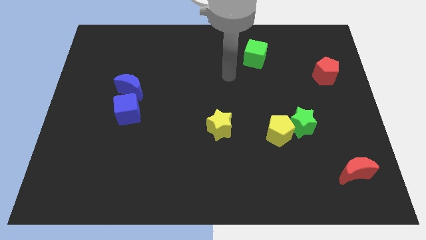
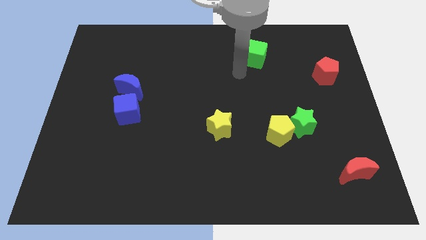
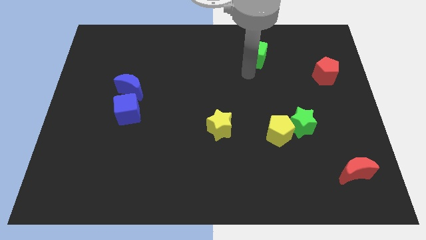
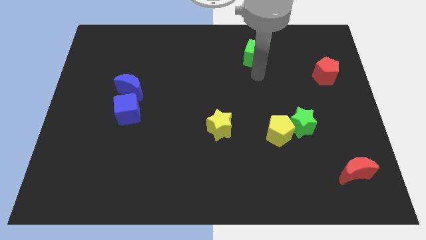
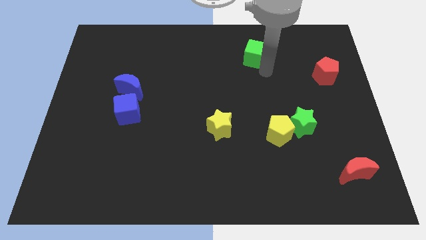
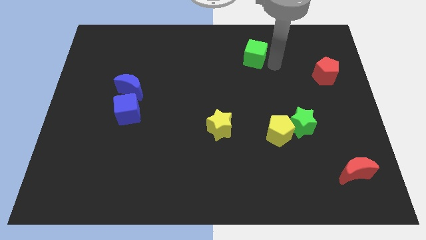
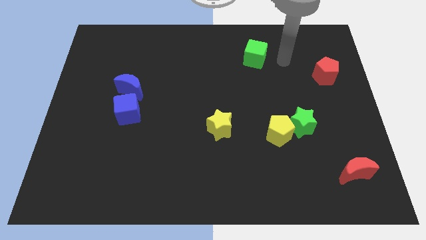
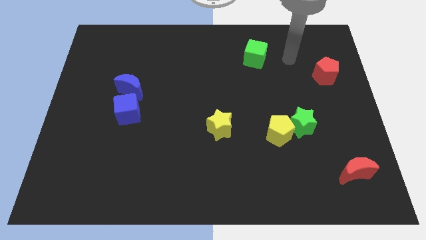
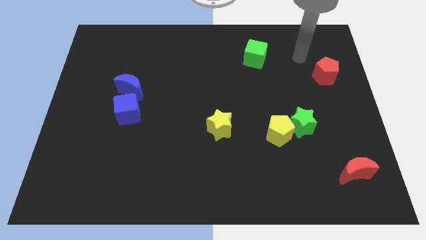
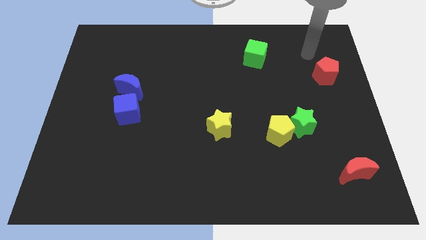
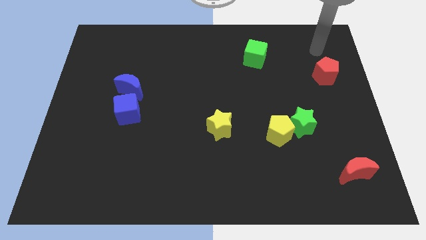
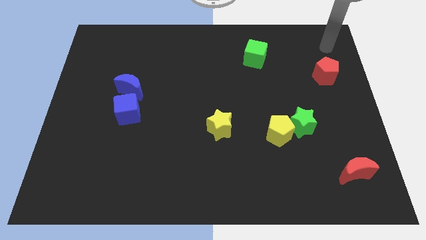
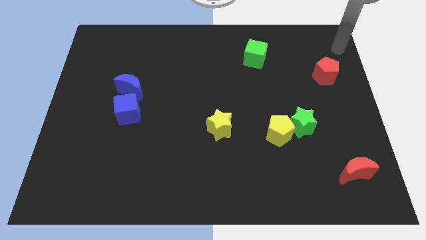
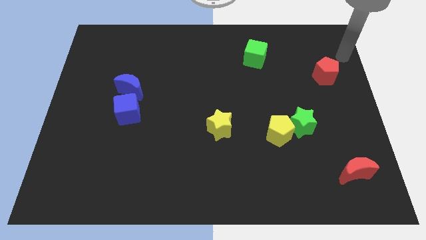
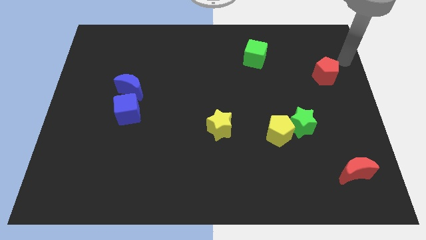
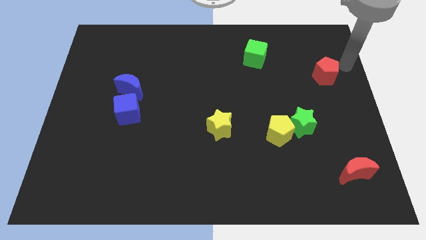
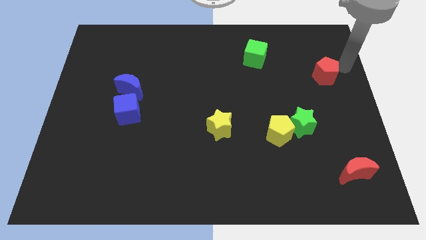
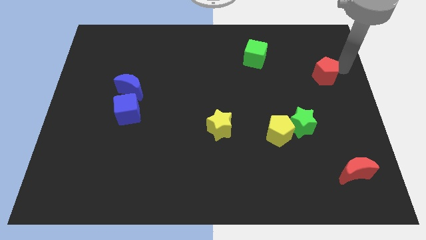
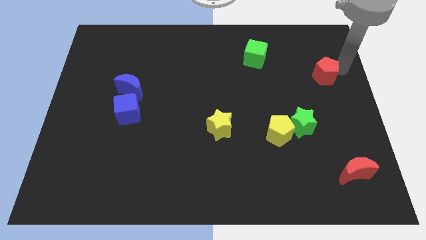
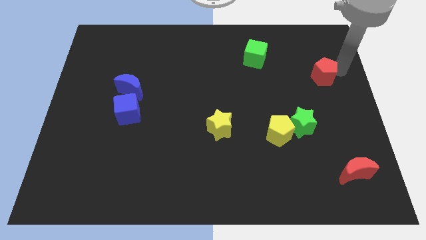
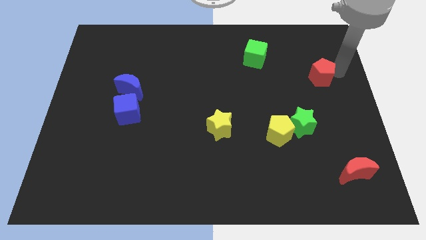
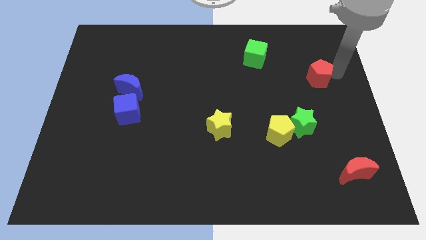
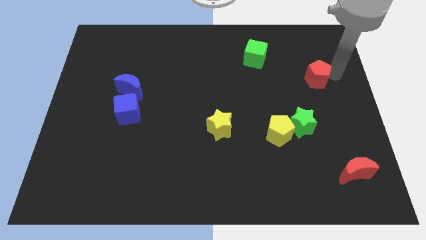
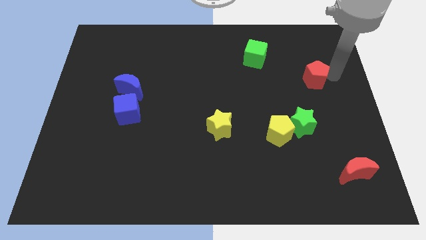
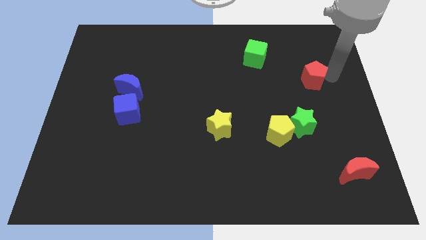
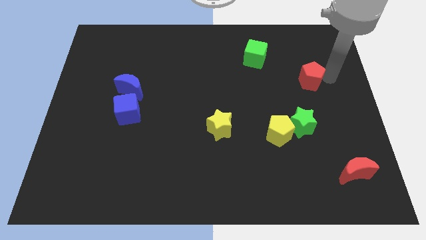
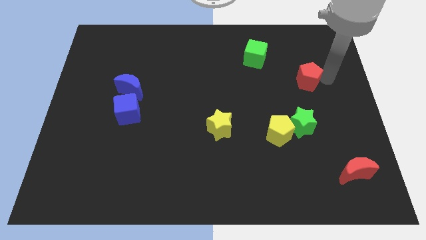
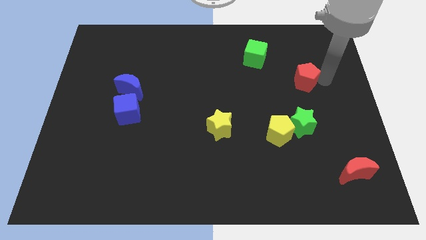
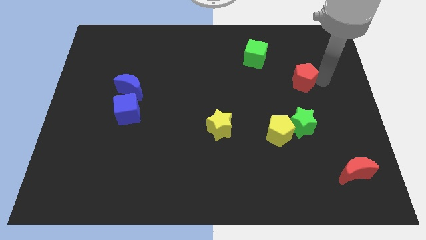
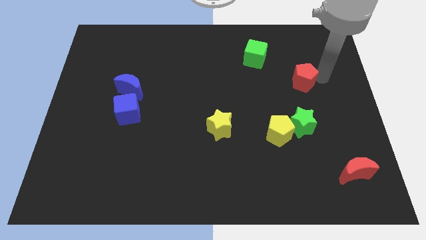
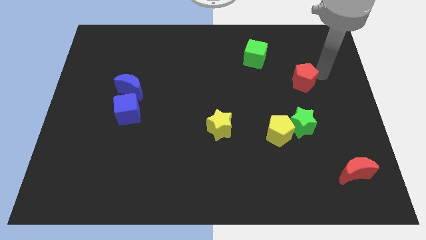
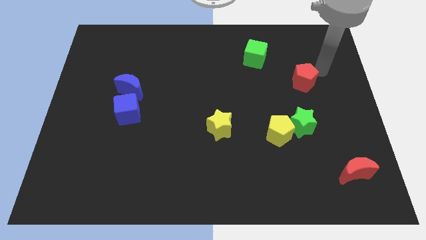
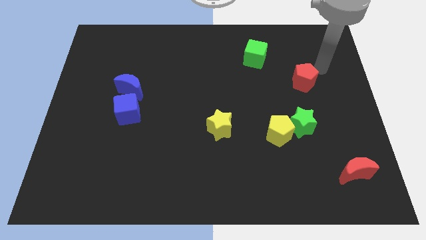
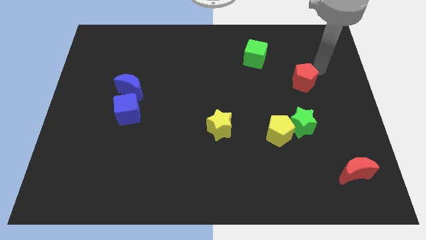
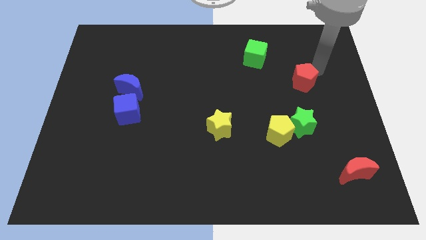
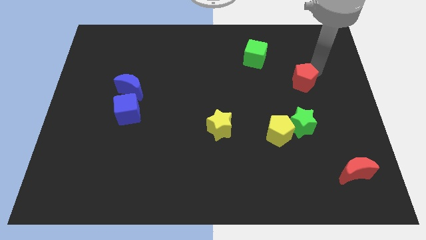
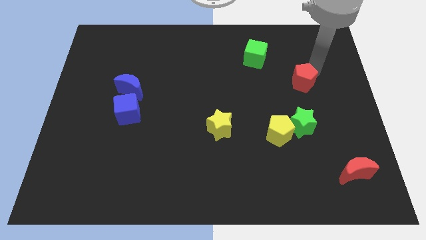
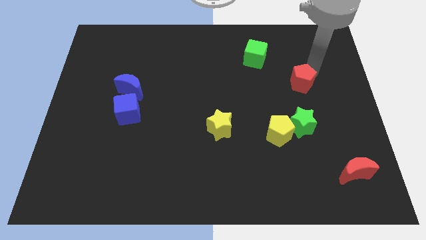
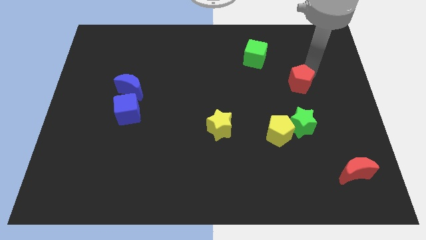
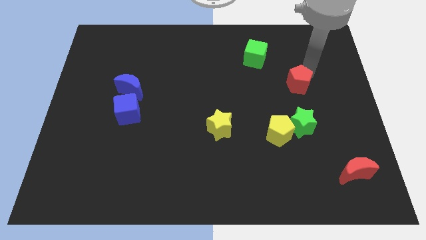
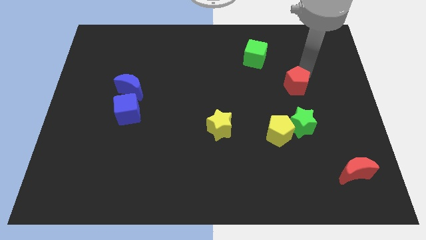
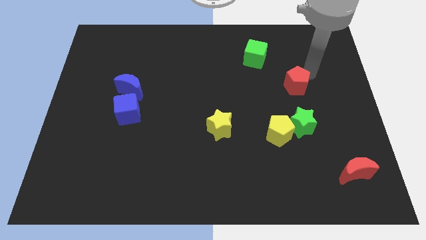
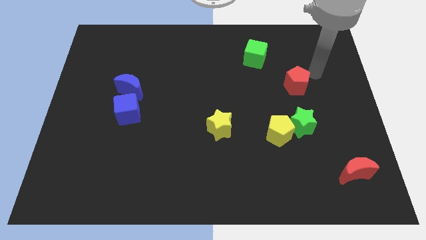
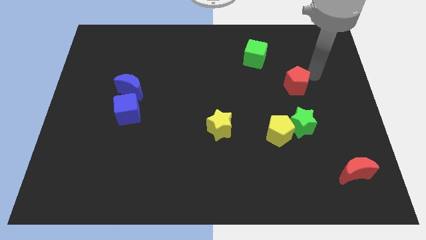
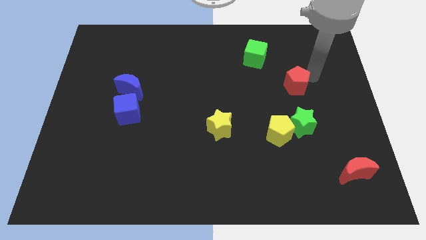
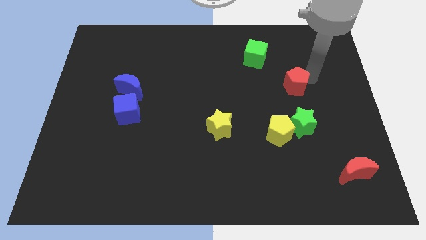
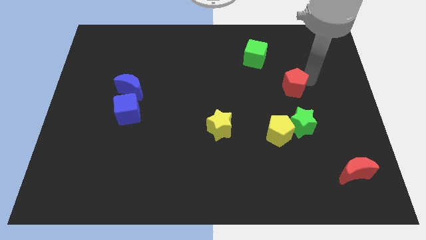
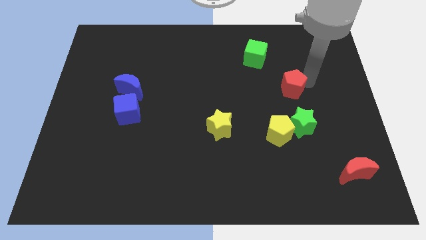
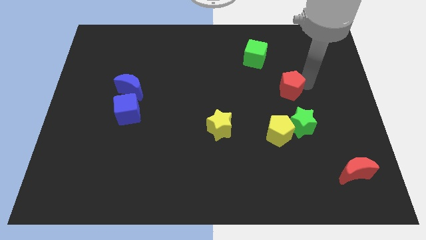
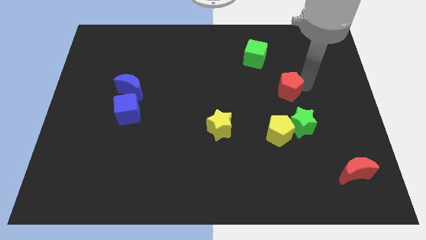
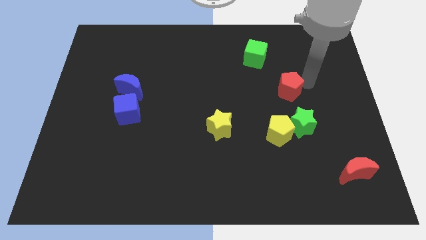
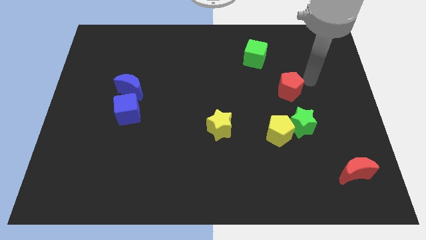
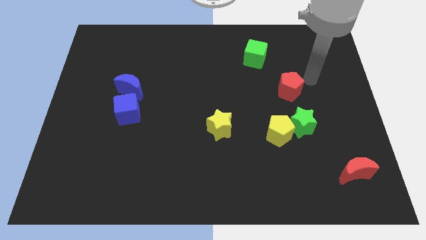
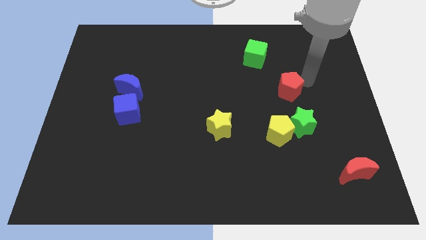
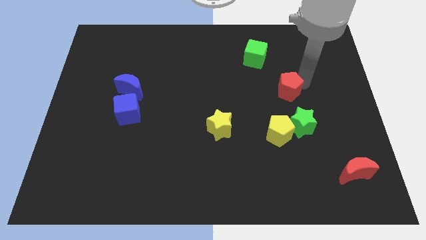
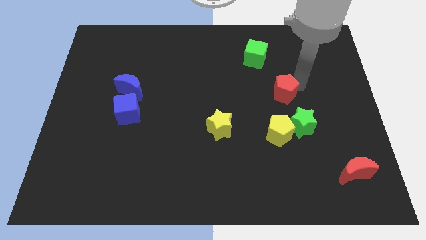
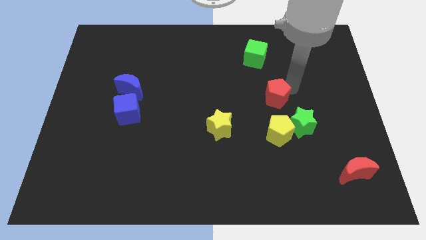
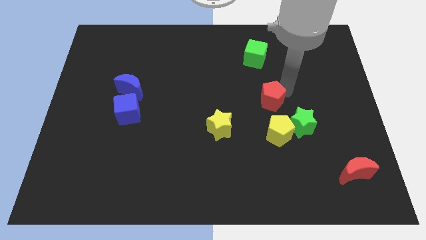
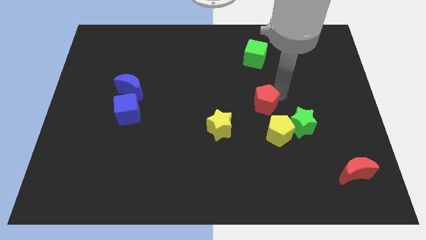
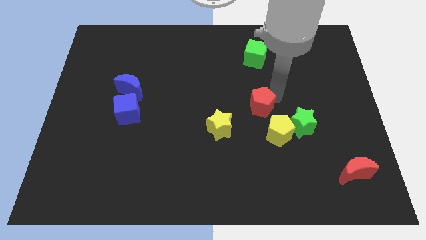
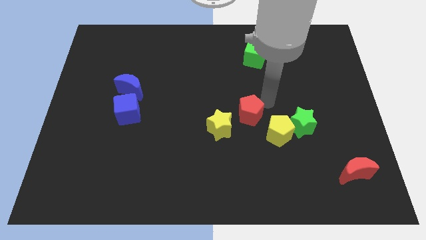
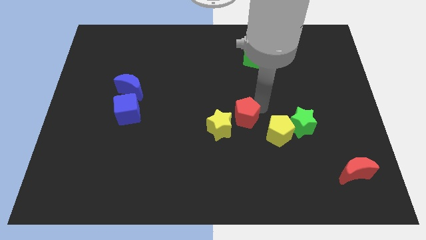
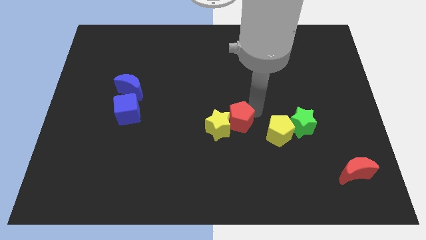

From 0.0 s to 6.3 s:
move the red pentagon to the yellow star

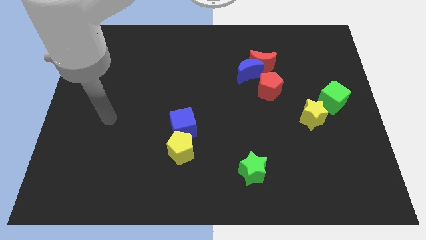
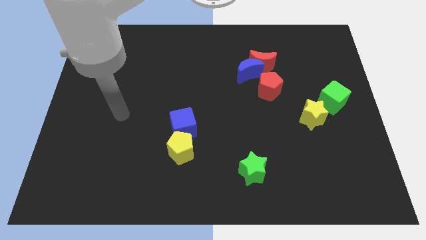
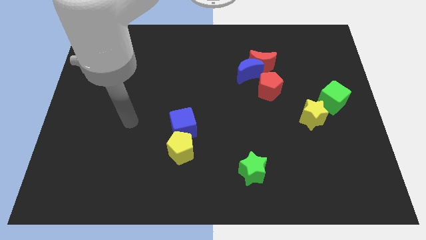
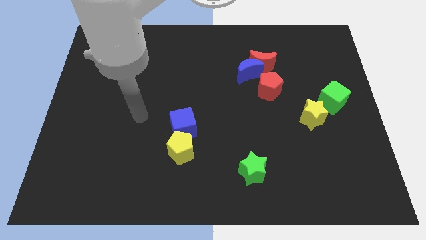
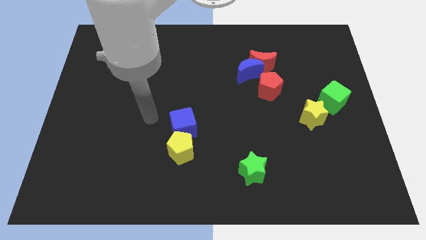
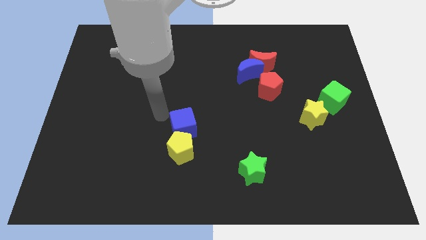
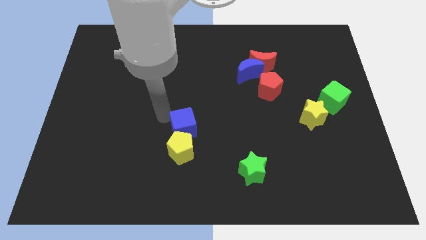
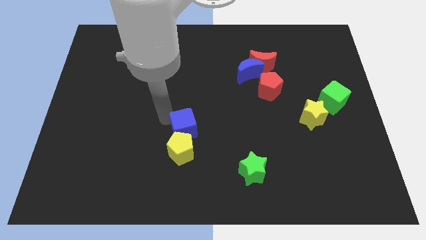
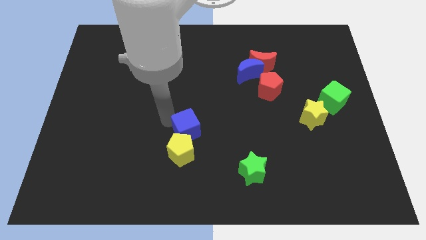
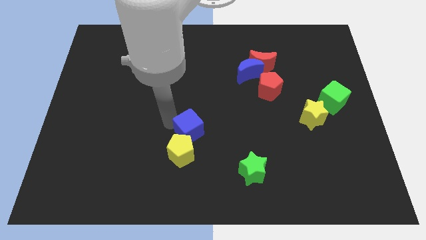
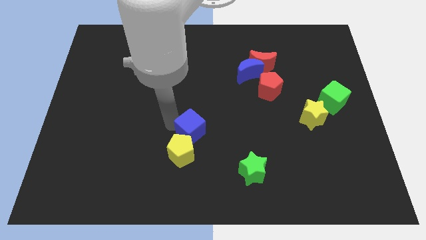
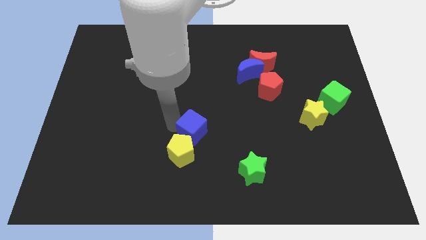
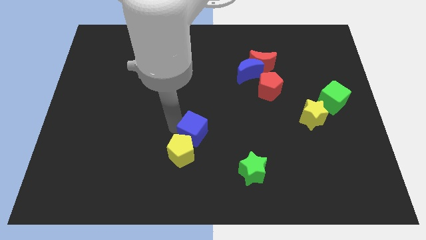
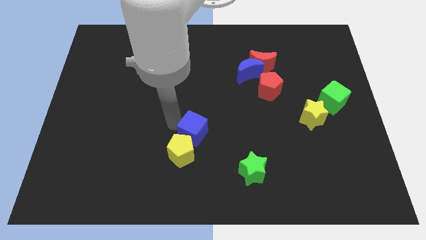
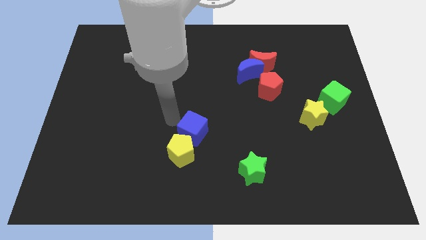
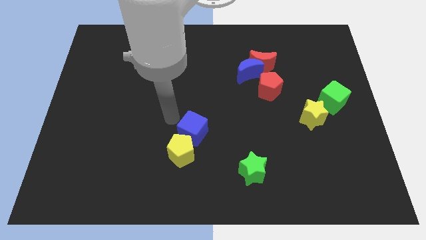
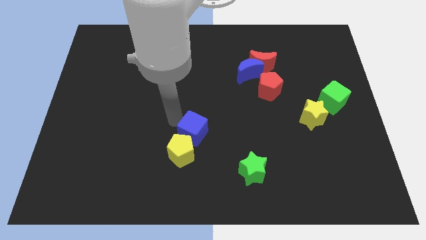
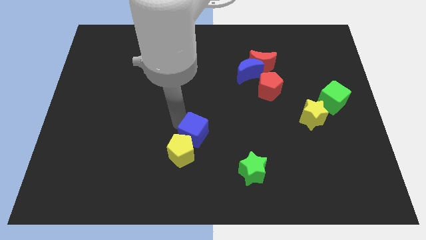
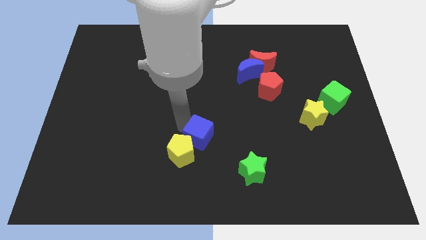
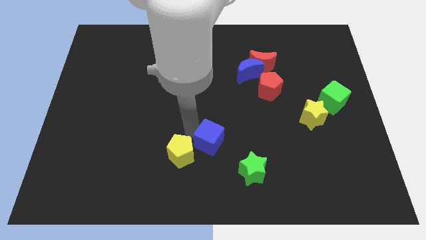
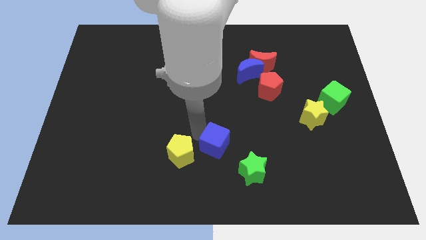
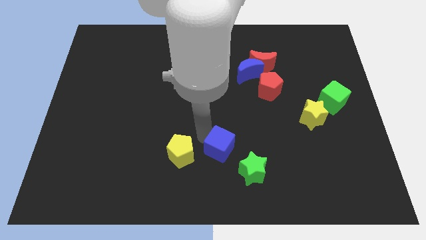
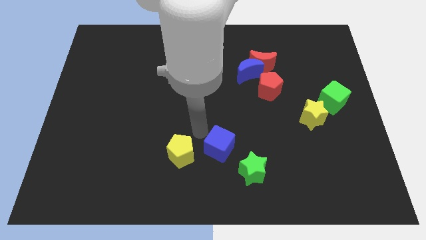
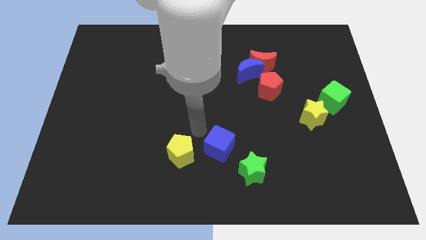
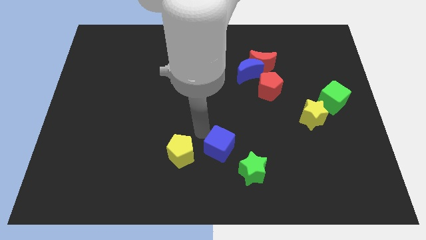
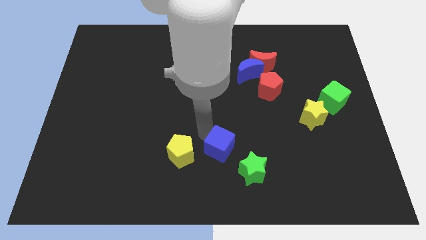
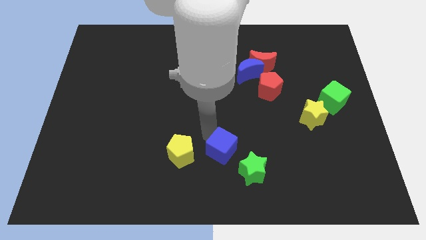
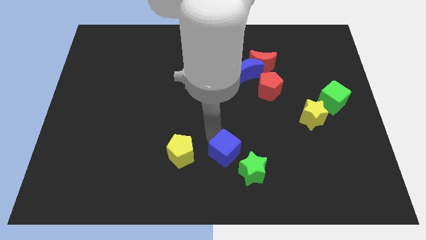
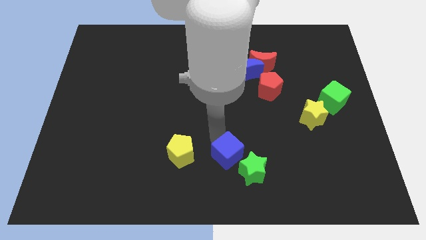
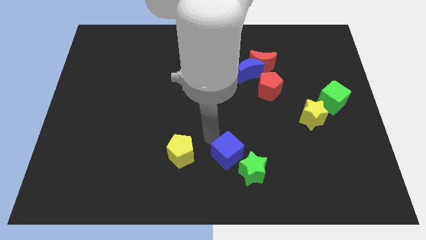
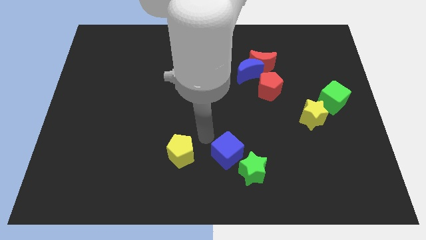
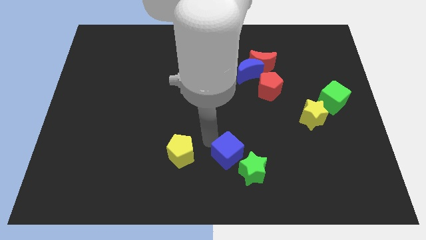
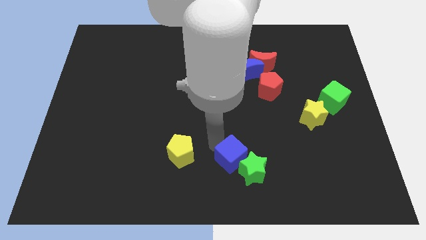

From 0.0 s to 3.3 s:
slide the blue cube next to the green star
